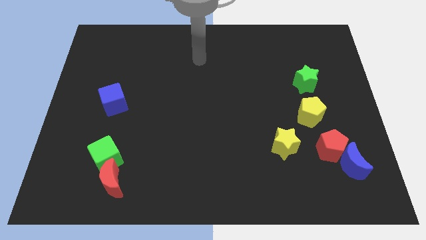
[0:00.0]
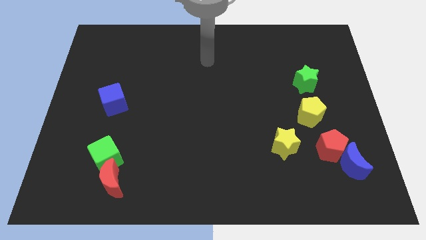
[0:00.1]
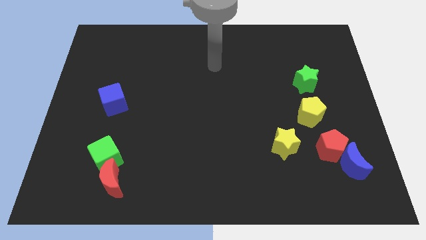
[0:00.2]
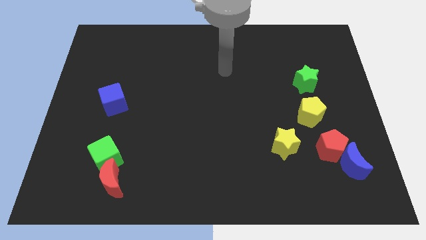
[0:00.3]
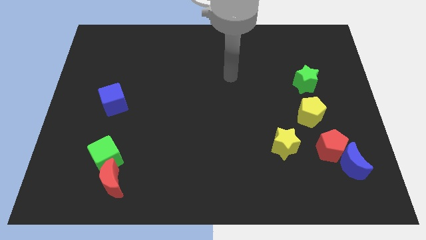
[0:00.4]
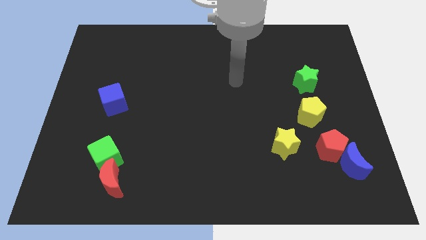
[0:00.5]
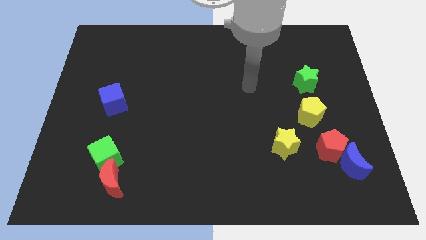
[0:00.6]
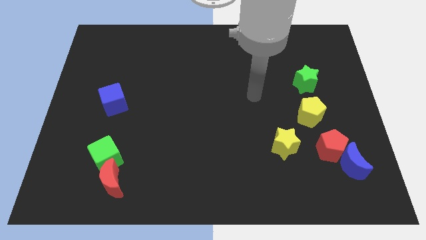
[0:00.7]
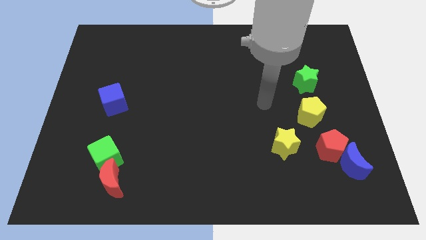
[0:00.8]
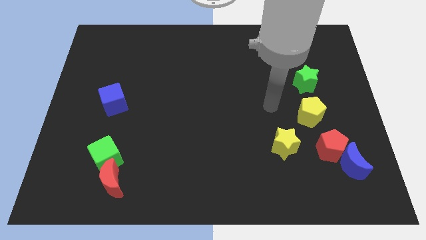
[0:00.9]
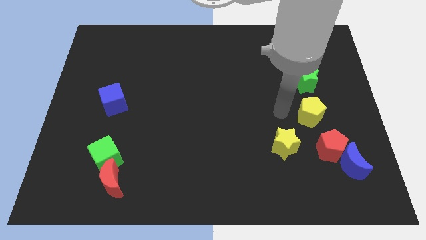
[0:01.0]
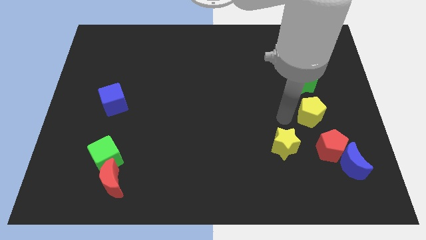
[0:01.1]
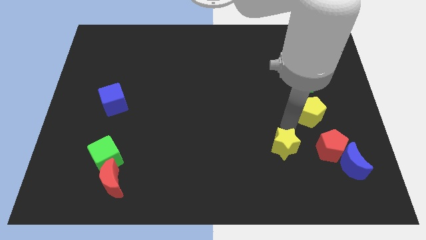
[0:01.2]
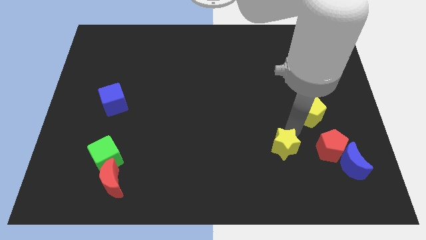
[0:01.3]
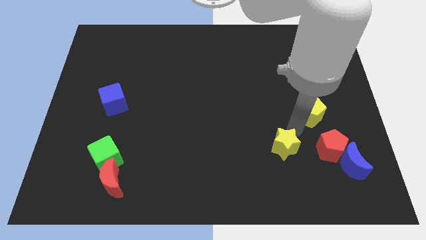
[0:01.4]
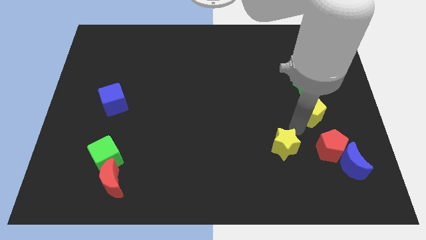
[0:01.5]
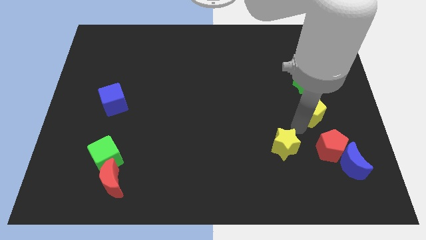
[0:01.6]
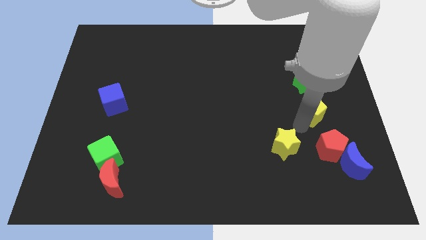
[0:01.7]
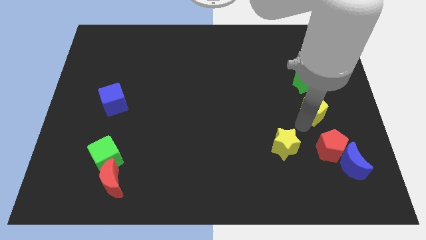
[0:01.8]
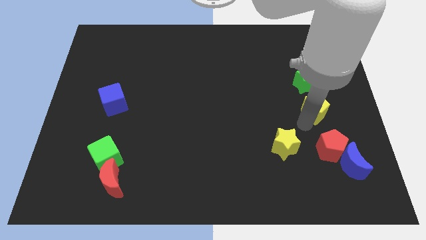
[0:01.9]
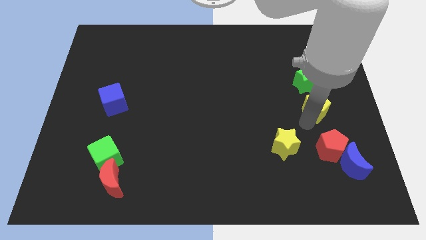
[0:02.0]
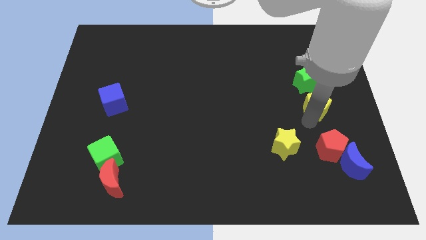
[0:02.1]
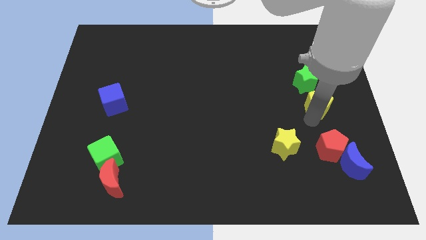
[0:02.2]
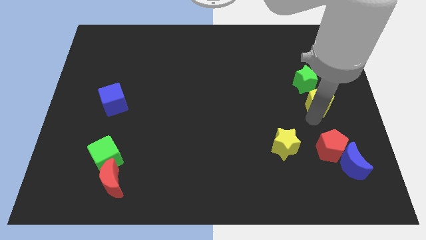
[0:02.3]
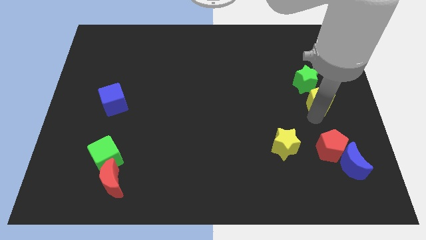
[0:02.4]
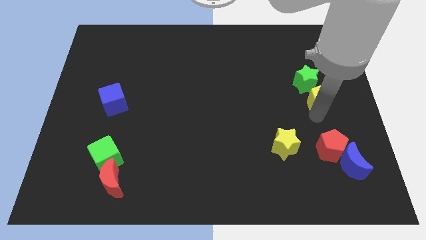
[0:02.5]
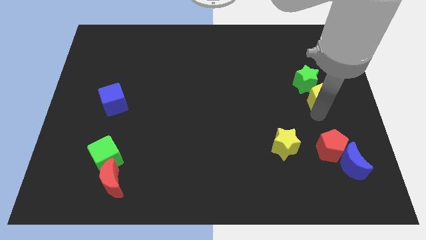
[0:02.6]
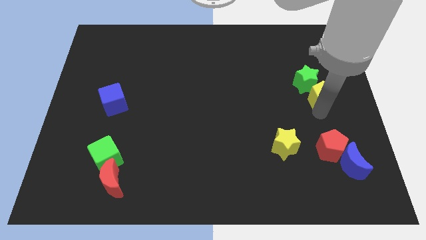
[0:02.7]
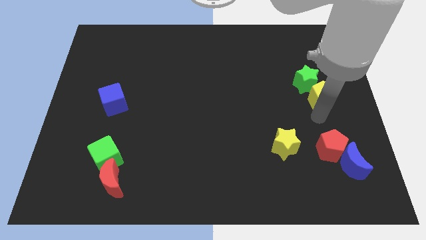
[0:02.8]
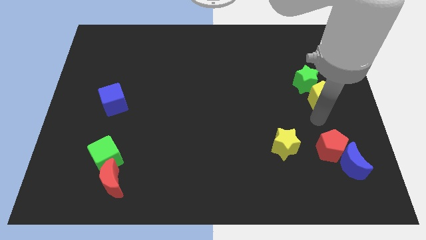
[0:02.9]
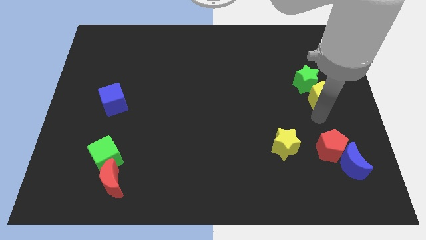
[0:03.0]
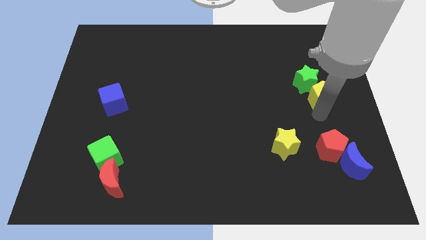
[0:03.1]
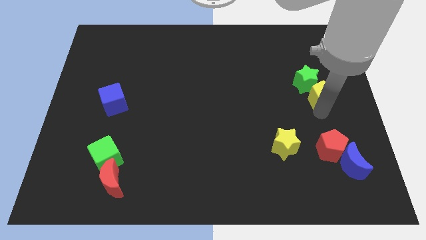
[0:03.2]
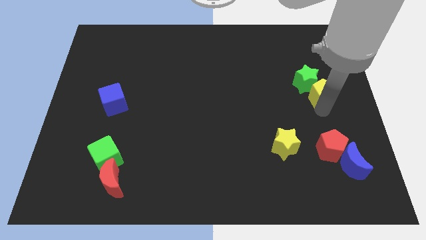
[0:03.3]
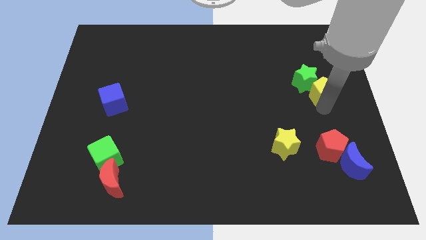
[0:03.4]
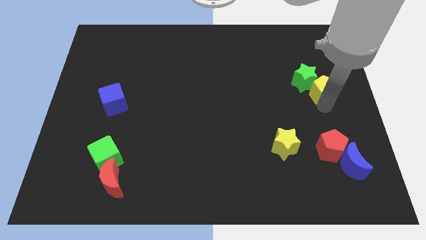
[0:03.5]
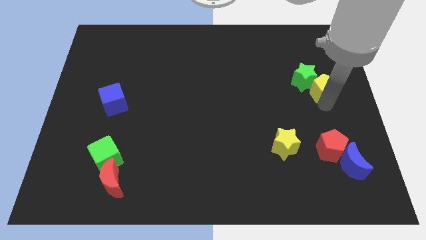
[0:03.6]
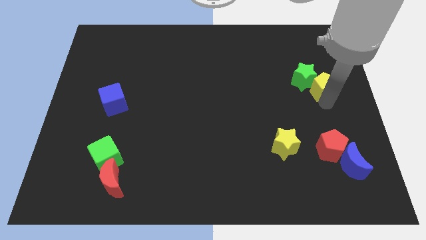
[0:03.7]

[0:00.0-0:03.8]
slightly slide the yellow pentagon upwards

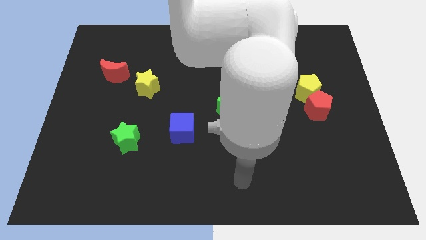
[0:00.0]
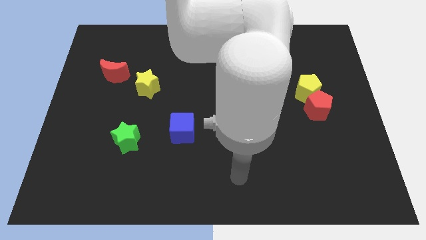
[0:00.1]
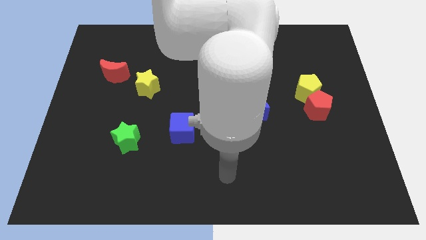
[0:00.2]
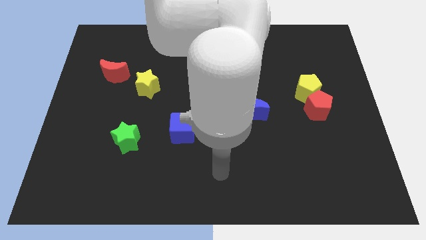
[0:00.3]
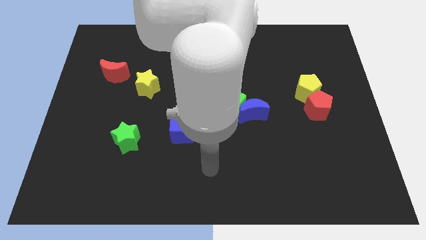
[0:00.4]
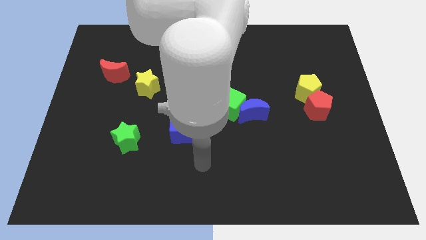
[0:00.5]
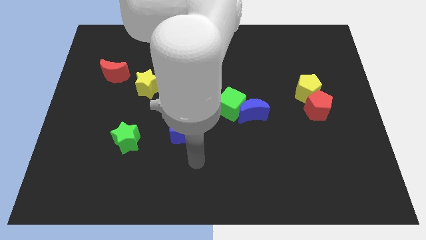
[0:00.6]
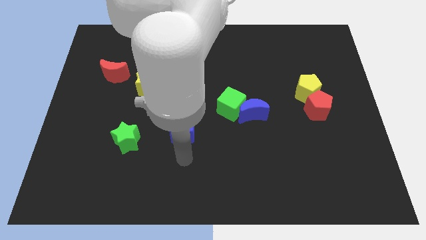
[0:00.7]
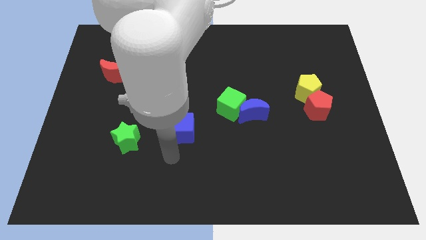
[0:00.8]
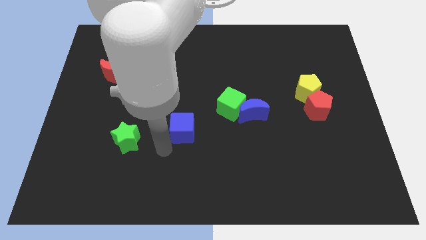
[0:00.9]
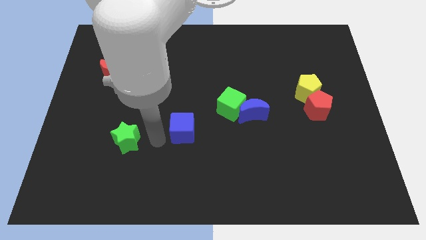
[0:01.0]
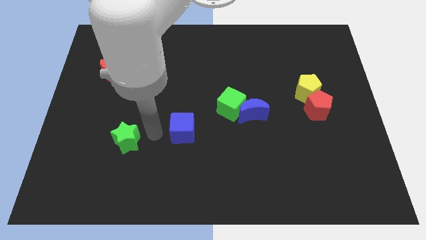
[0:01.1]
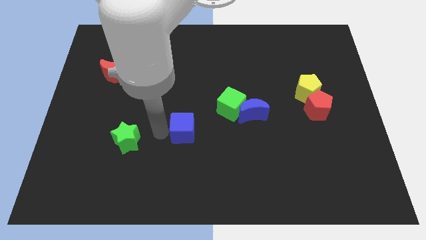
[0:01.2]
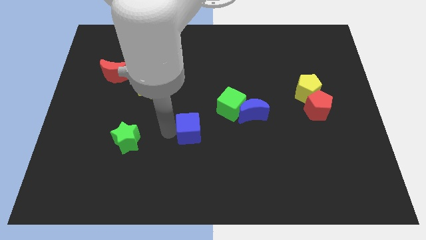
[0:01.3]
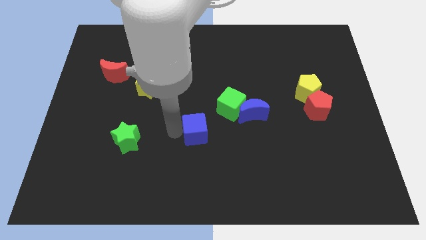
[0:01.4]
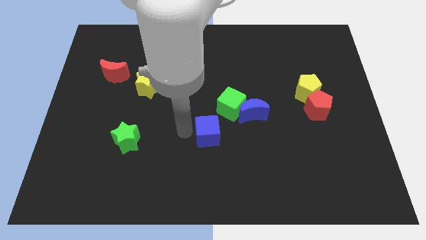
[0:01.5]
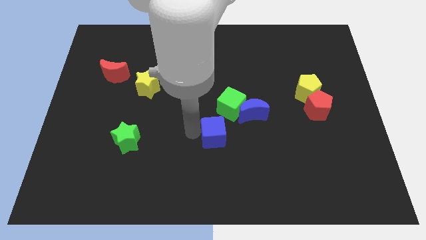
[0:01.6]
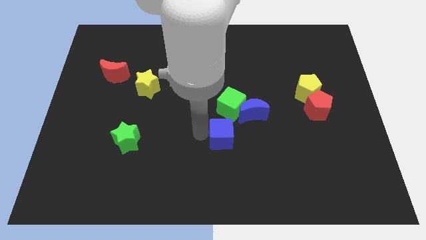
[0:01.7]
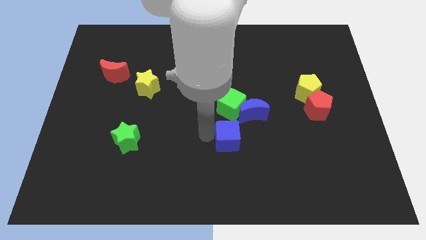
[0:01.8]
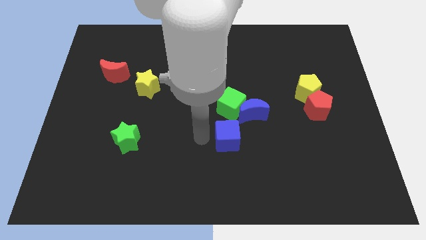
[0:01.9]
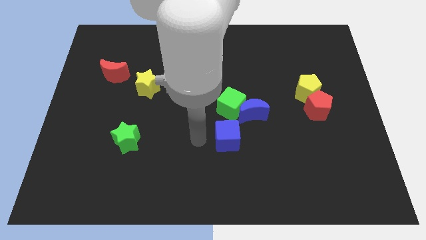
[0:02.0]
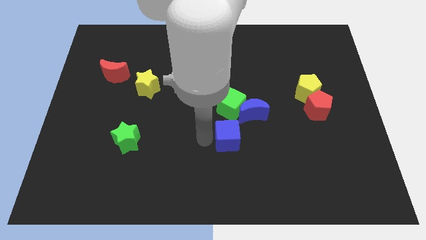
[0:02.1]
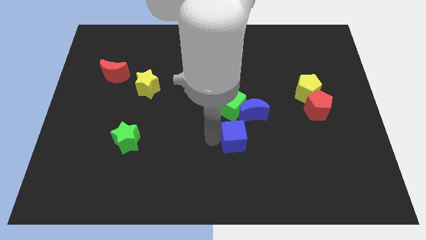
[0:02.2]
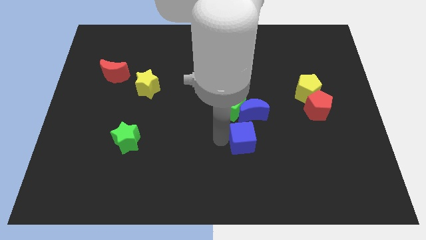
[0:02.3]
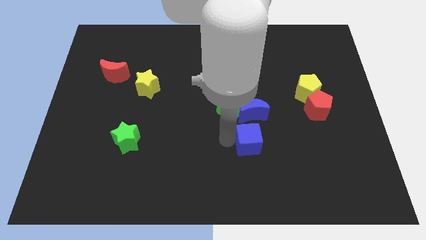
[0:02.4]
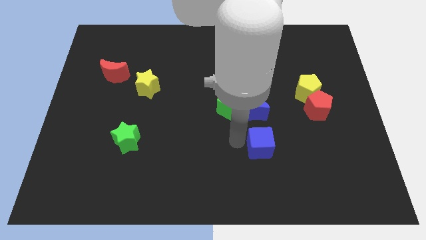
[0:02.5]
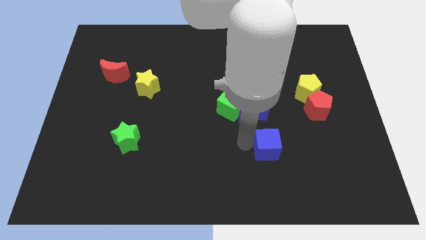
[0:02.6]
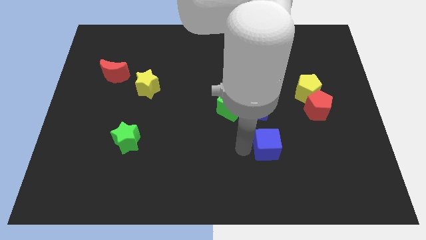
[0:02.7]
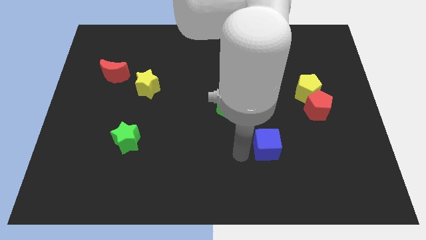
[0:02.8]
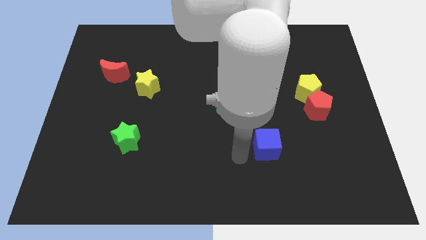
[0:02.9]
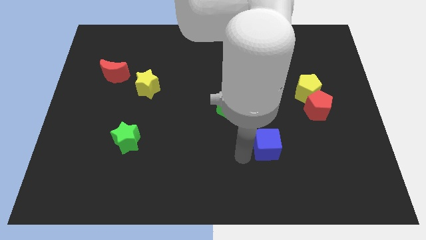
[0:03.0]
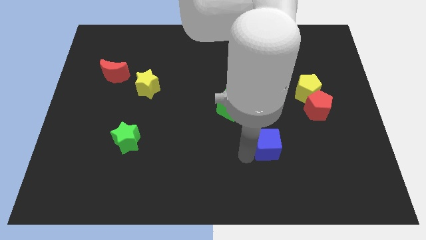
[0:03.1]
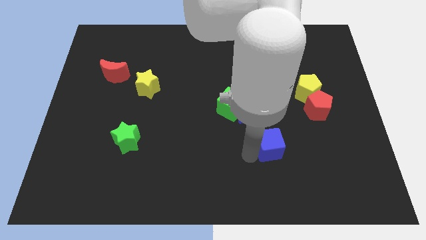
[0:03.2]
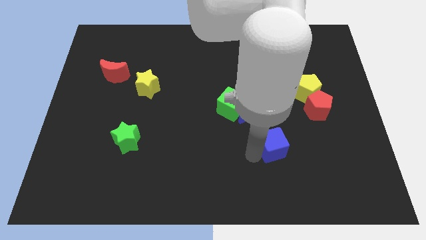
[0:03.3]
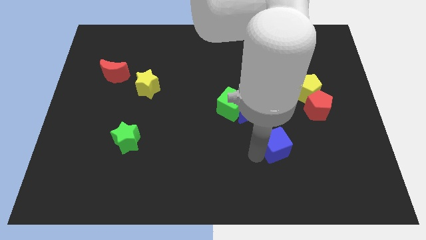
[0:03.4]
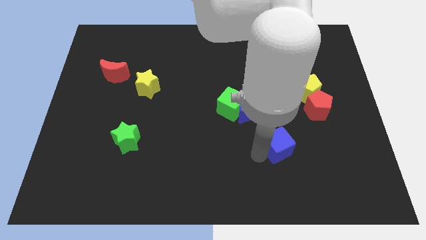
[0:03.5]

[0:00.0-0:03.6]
slide the blue cube right

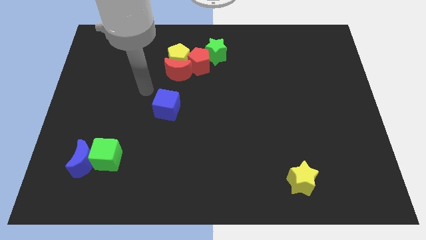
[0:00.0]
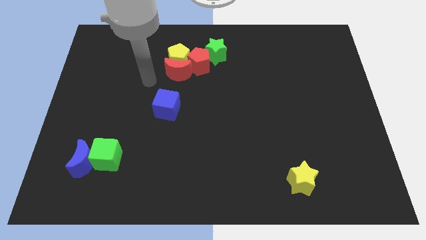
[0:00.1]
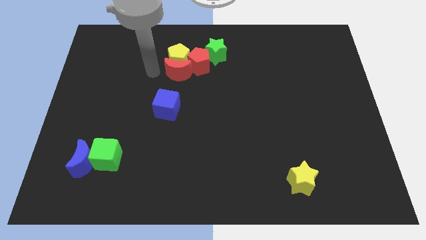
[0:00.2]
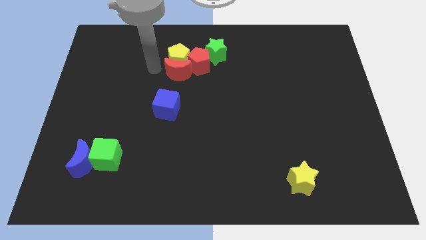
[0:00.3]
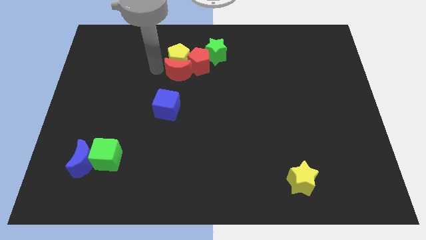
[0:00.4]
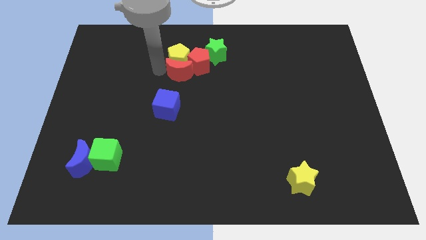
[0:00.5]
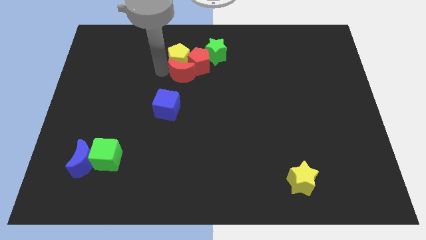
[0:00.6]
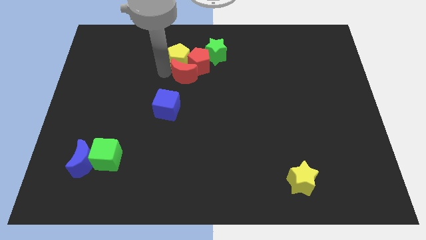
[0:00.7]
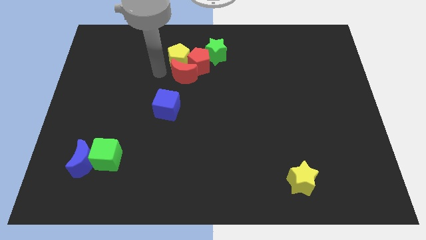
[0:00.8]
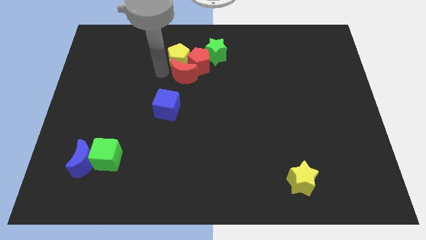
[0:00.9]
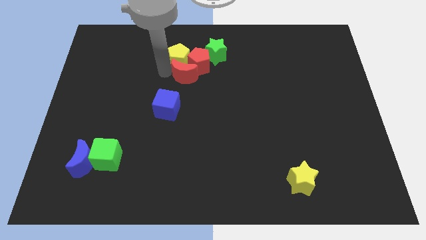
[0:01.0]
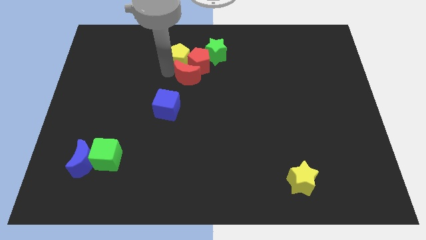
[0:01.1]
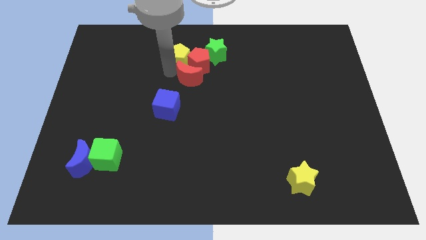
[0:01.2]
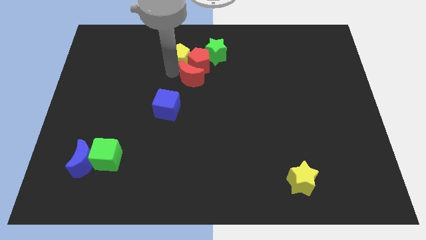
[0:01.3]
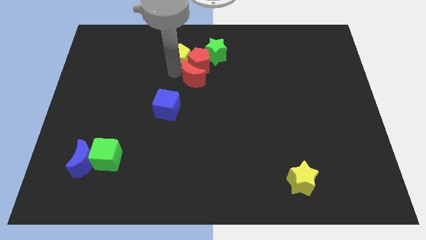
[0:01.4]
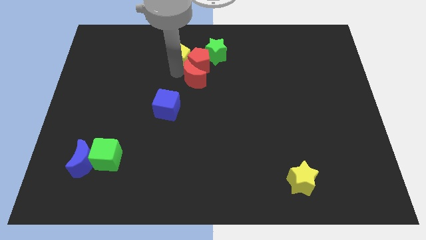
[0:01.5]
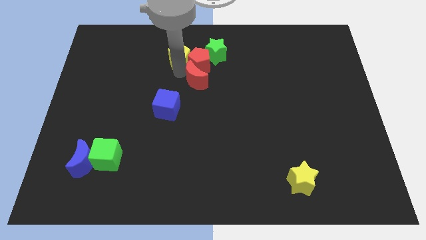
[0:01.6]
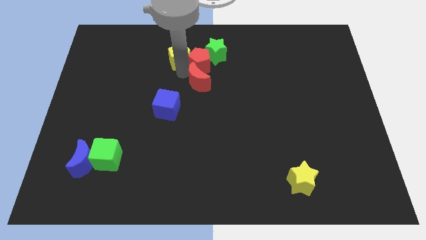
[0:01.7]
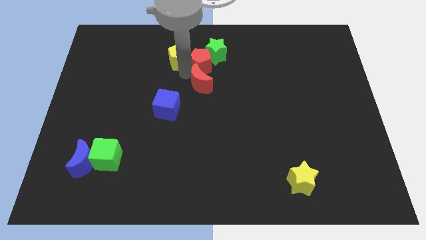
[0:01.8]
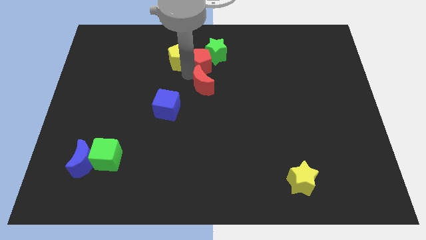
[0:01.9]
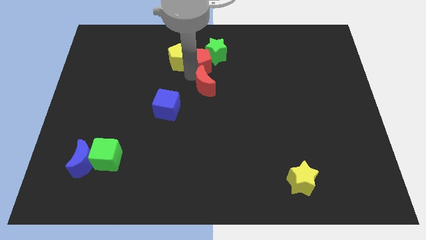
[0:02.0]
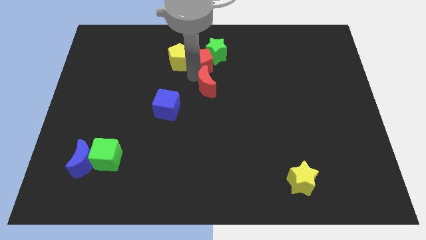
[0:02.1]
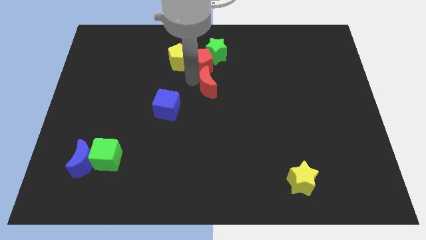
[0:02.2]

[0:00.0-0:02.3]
slightly move the red moon to the right
